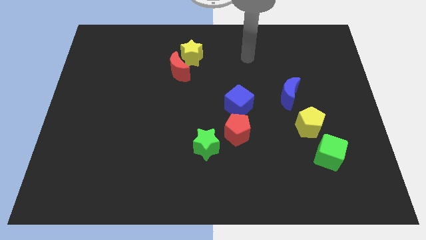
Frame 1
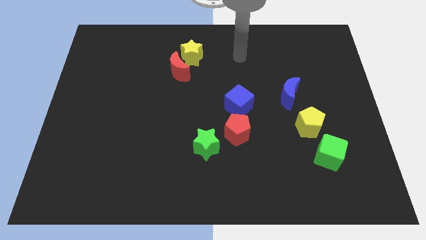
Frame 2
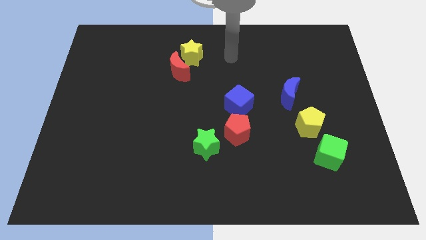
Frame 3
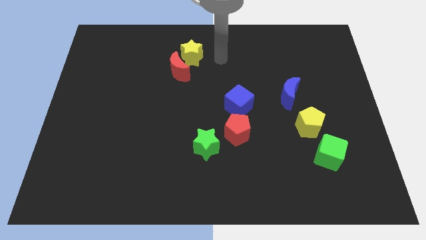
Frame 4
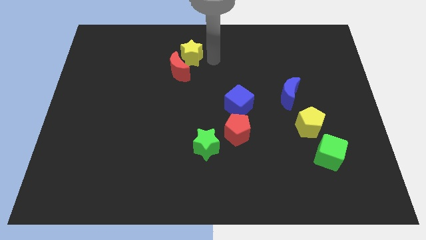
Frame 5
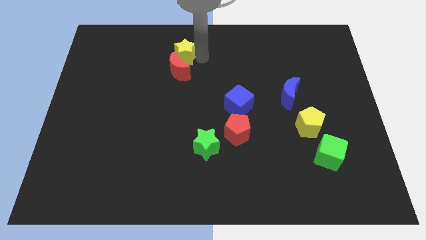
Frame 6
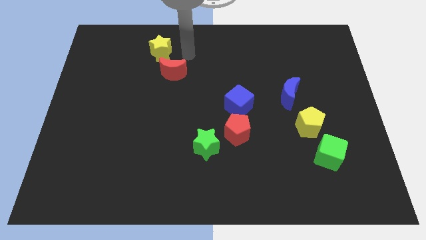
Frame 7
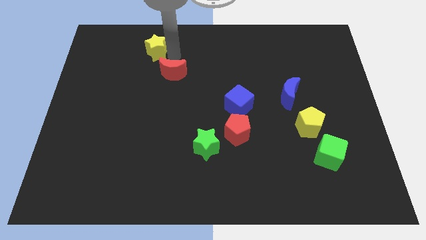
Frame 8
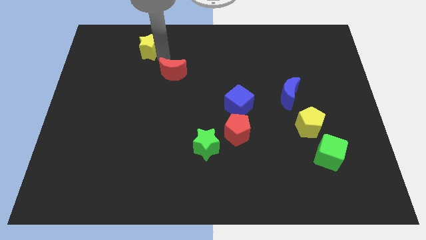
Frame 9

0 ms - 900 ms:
move the red moon away from the yellow star

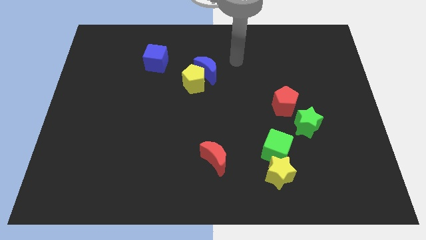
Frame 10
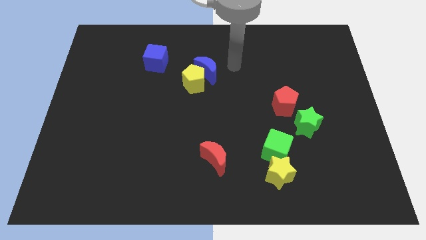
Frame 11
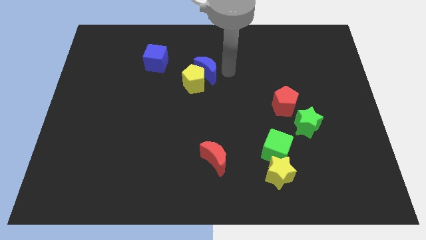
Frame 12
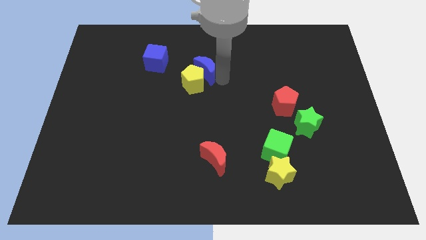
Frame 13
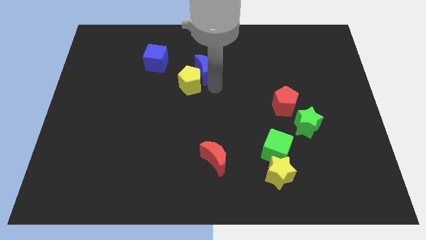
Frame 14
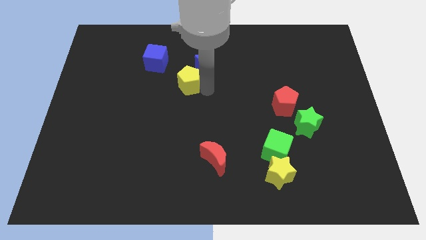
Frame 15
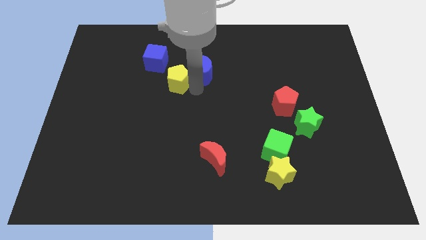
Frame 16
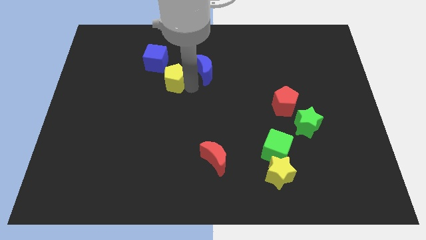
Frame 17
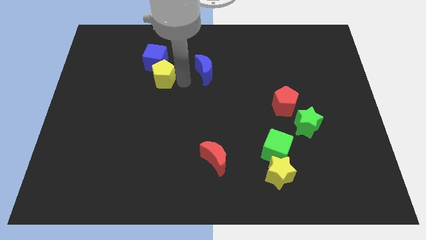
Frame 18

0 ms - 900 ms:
pull the blue moon apart from the yellow pentagon

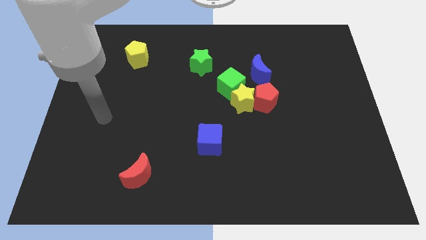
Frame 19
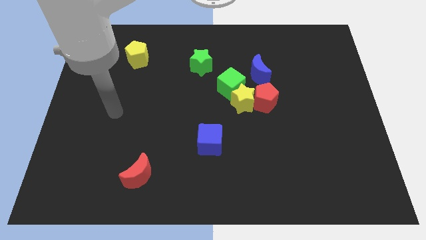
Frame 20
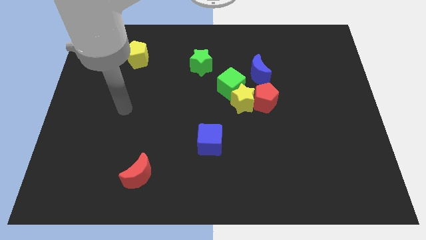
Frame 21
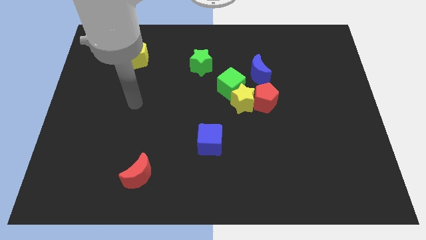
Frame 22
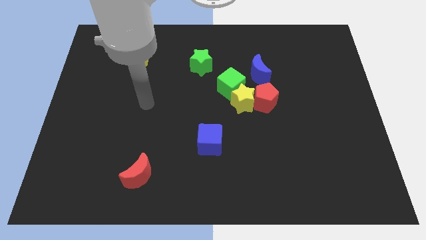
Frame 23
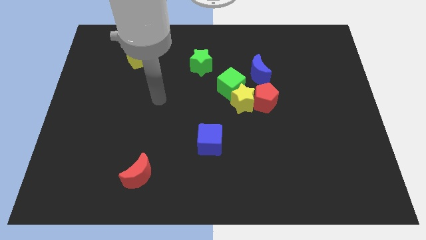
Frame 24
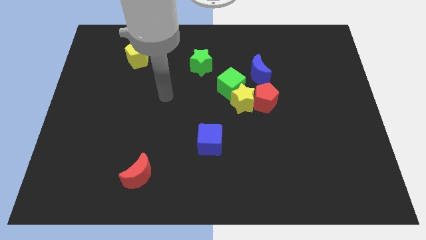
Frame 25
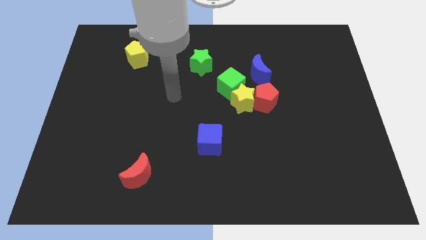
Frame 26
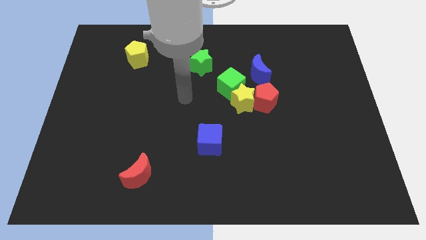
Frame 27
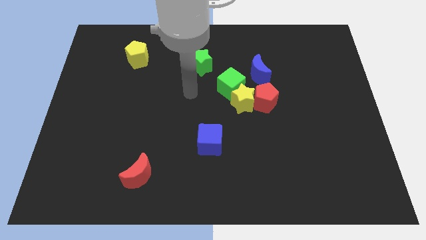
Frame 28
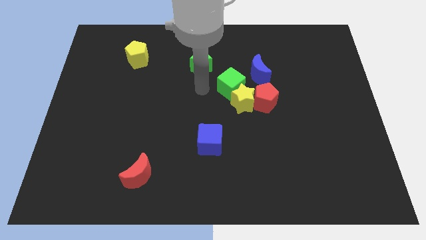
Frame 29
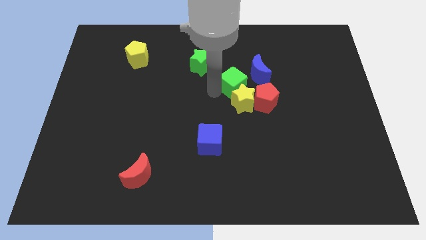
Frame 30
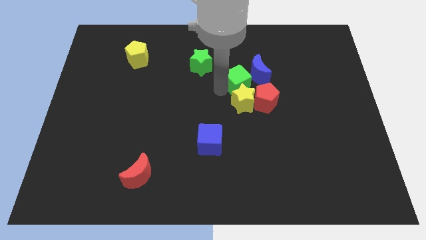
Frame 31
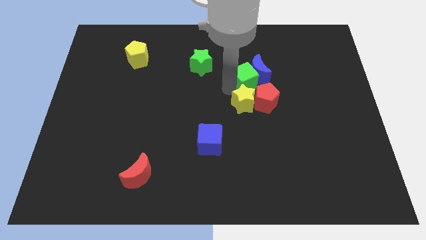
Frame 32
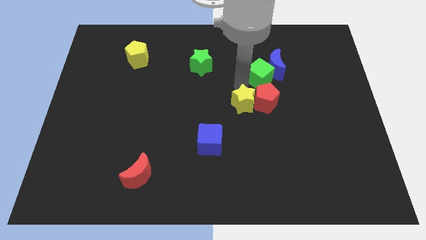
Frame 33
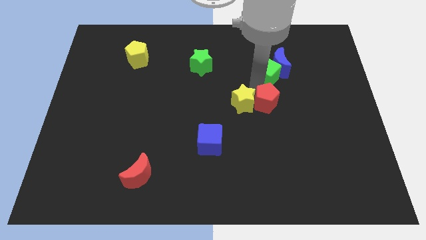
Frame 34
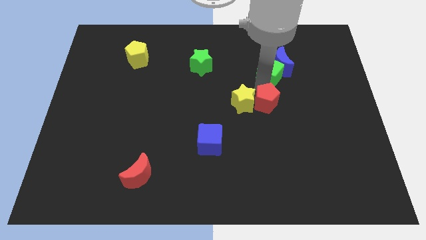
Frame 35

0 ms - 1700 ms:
separate the yellow star from the red pentagon, green cube, and blue moon

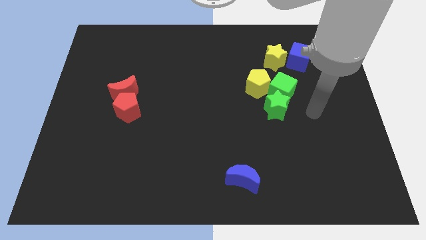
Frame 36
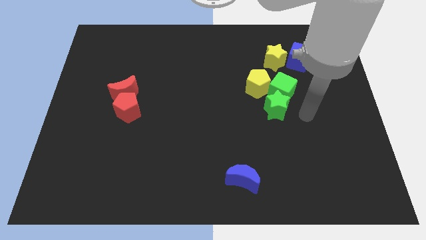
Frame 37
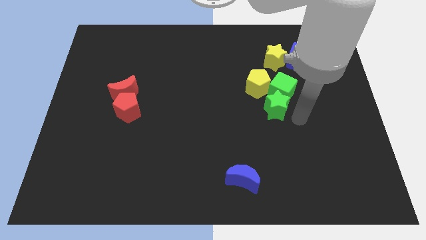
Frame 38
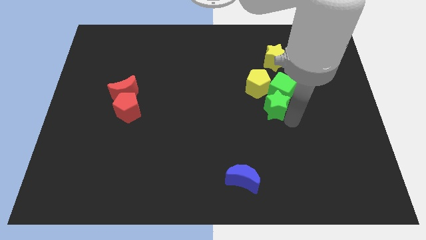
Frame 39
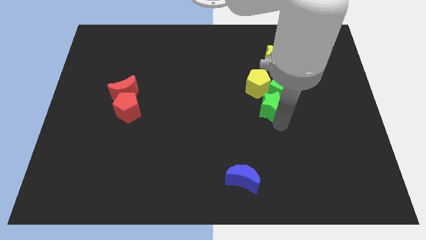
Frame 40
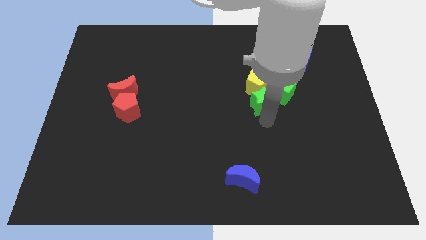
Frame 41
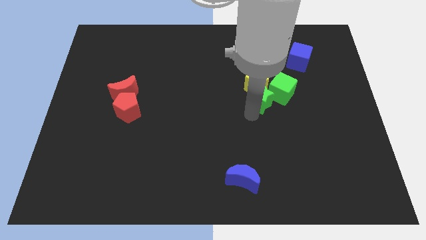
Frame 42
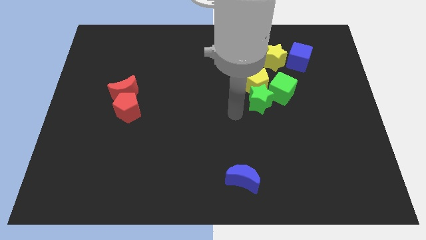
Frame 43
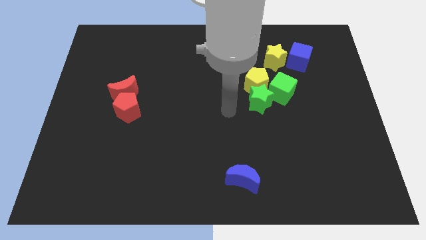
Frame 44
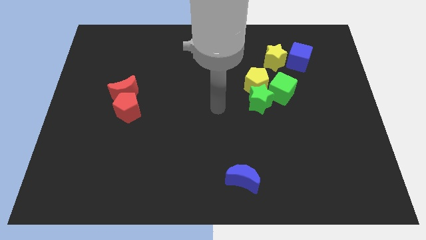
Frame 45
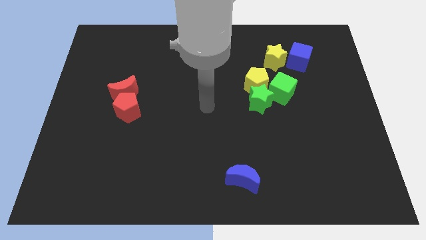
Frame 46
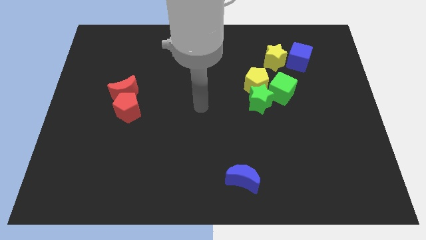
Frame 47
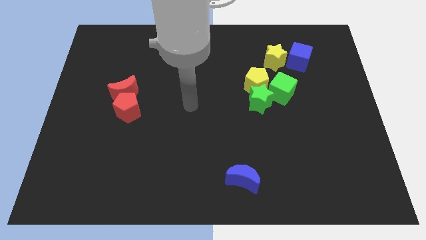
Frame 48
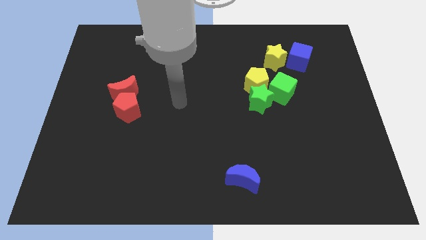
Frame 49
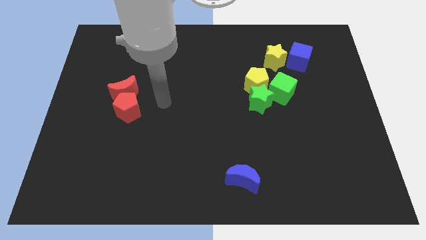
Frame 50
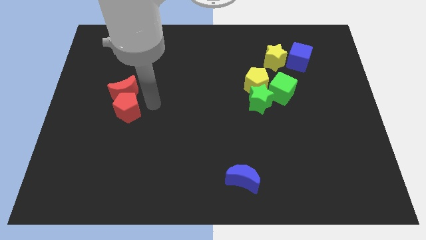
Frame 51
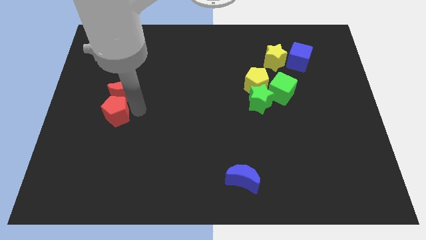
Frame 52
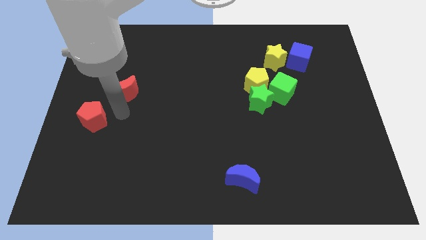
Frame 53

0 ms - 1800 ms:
pull the red moon apart from the red pentagon

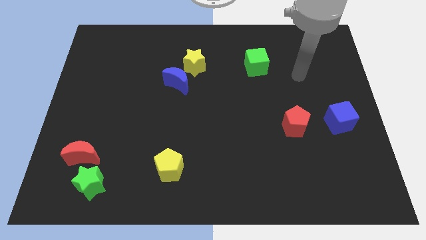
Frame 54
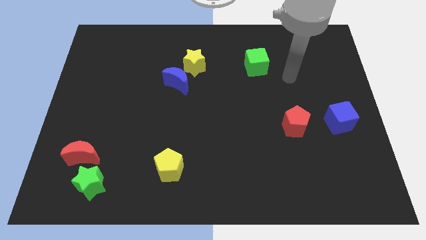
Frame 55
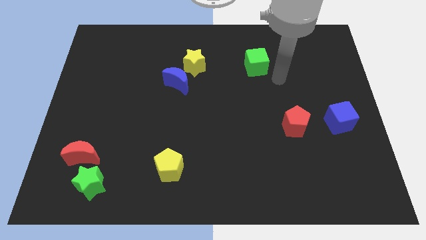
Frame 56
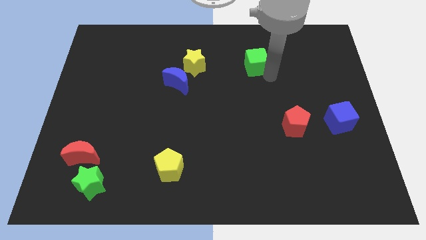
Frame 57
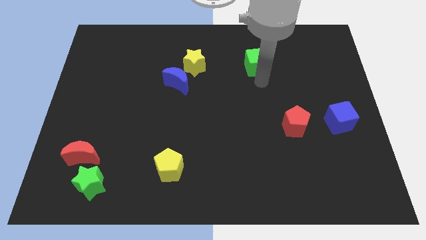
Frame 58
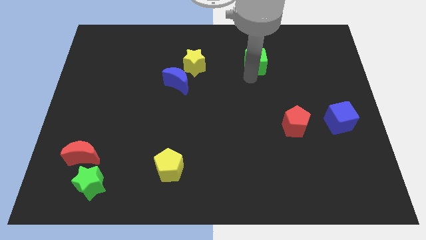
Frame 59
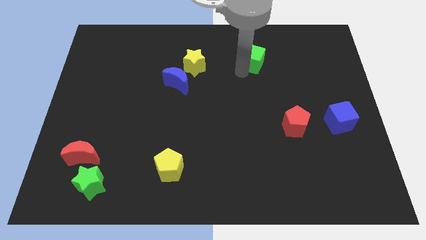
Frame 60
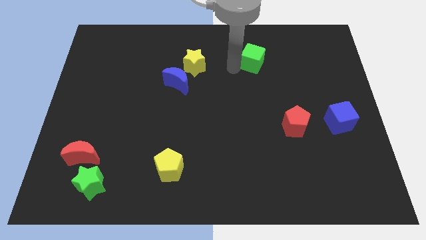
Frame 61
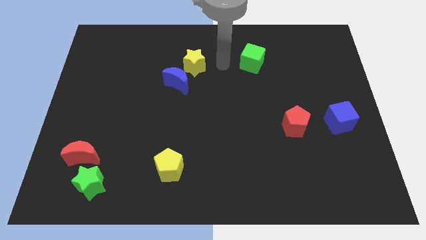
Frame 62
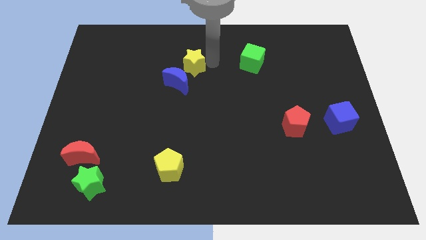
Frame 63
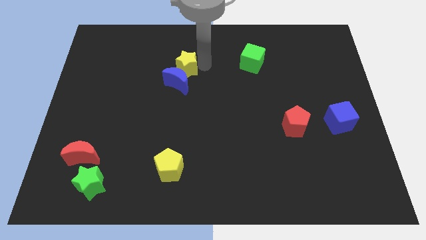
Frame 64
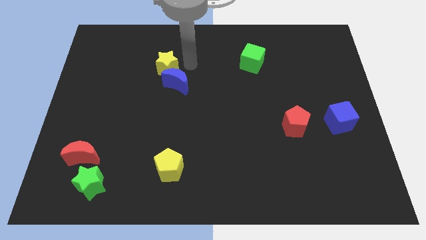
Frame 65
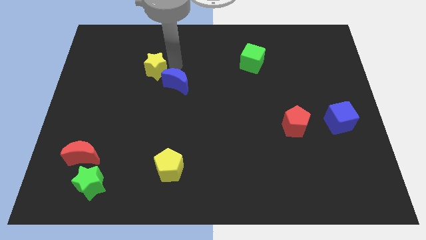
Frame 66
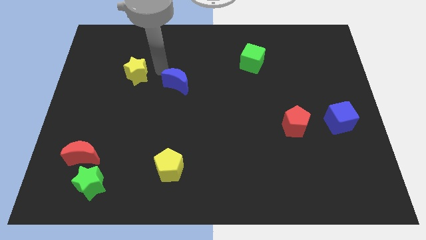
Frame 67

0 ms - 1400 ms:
separate the blue moon from the yellow star

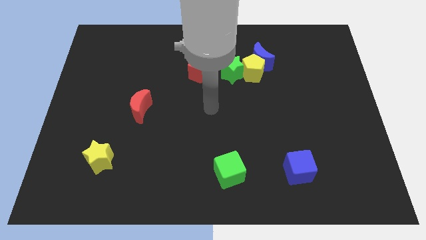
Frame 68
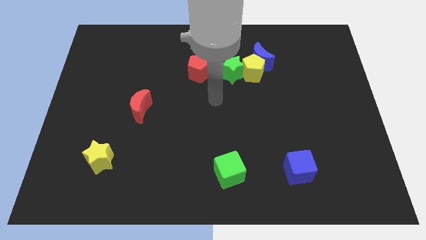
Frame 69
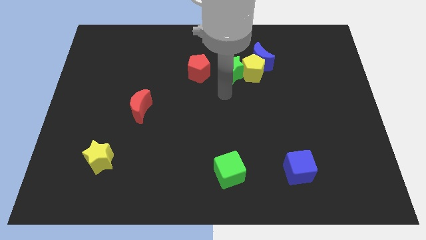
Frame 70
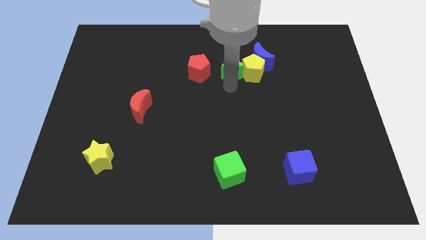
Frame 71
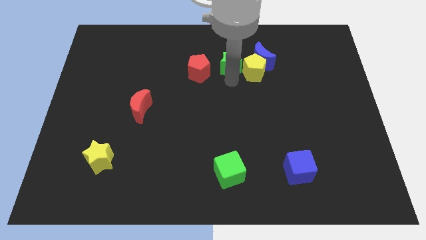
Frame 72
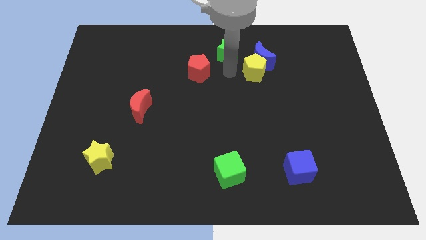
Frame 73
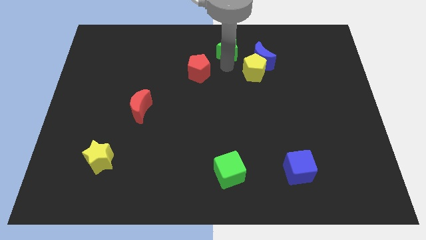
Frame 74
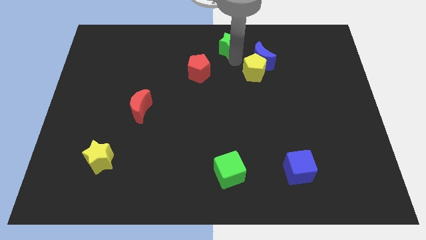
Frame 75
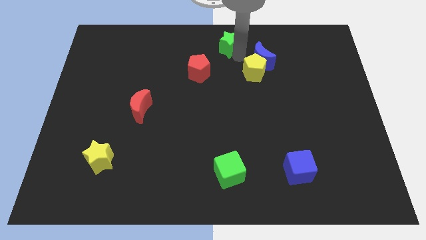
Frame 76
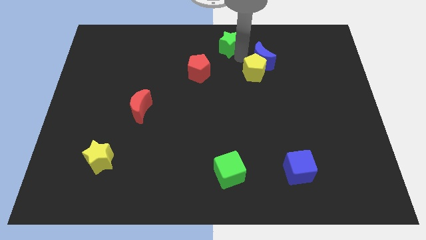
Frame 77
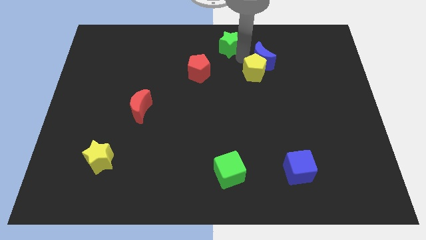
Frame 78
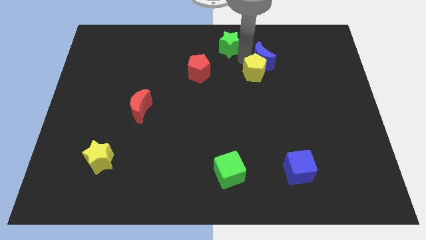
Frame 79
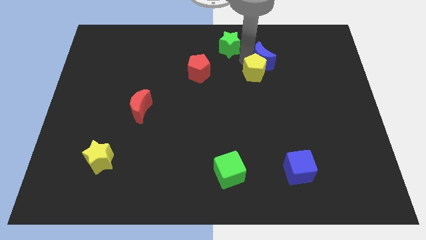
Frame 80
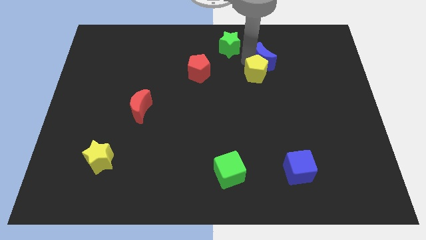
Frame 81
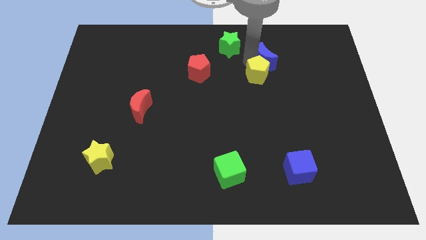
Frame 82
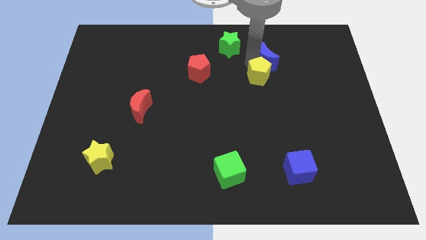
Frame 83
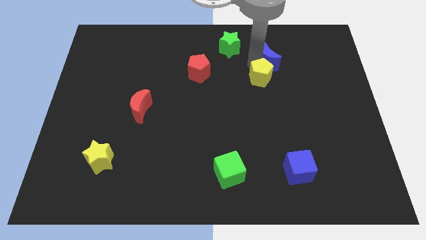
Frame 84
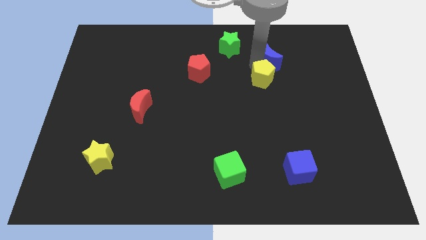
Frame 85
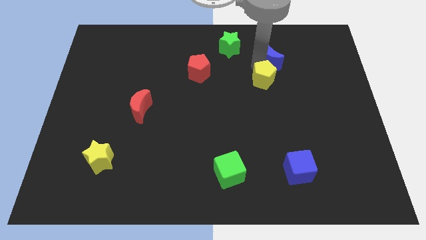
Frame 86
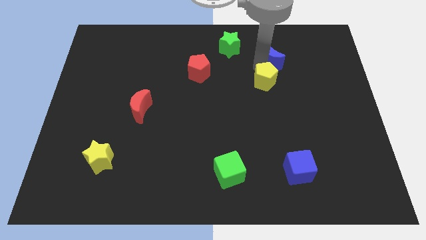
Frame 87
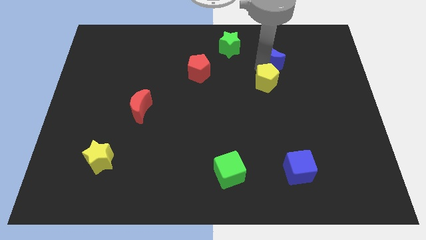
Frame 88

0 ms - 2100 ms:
move the yellow pentagon away from the blue moon and green star

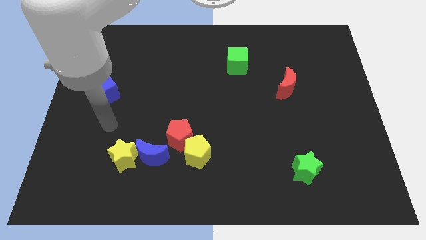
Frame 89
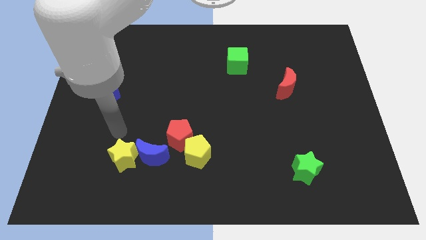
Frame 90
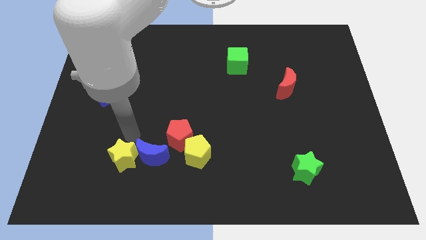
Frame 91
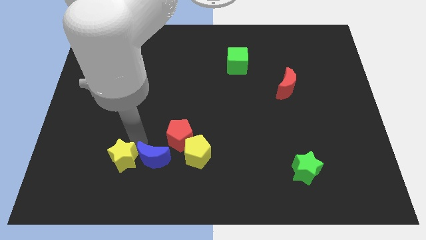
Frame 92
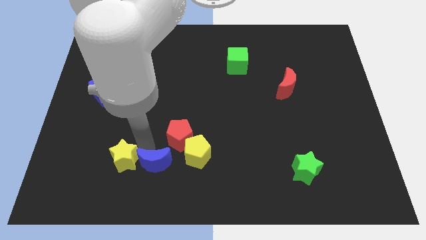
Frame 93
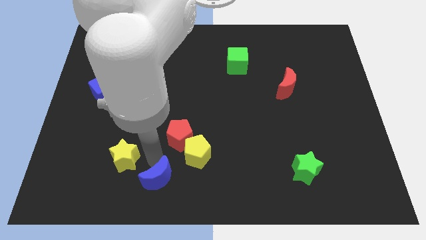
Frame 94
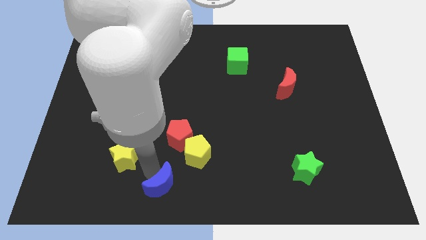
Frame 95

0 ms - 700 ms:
move the yellow star away from the blue moon

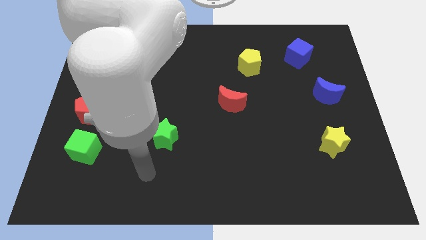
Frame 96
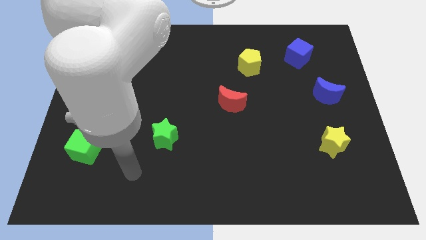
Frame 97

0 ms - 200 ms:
move the red pentagon away from the green cube
